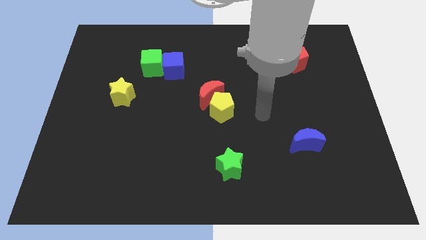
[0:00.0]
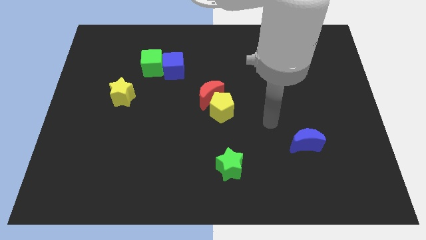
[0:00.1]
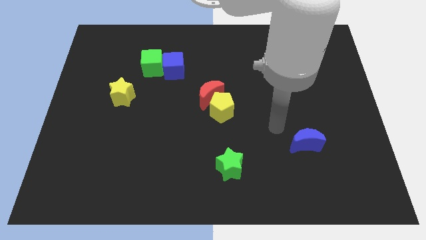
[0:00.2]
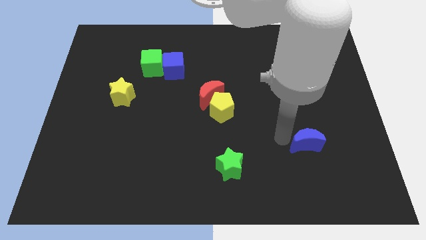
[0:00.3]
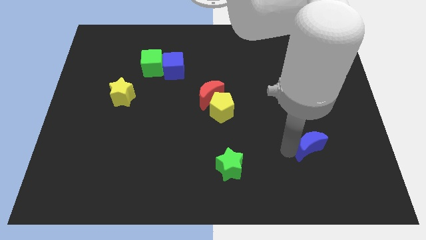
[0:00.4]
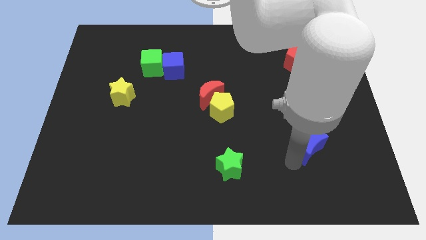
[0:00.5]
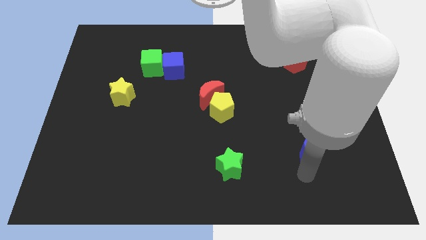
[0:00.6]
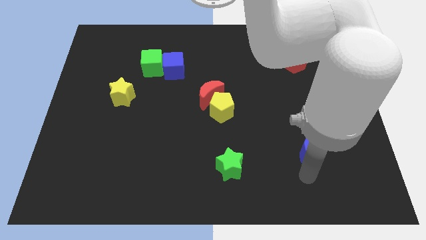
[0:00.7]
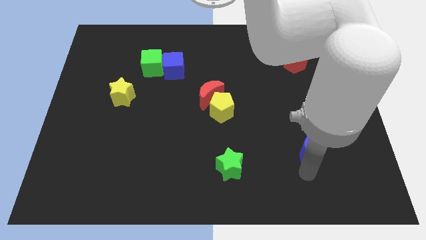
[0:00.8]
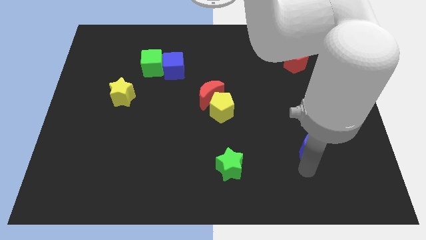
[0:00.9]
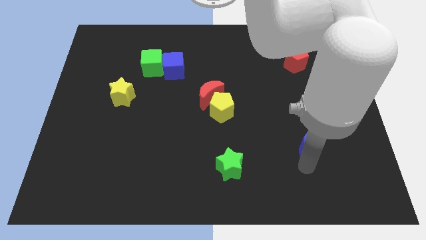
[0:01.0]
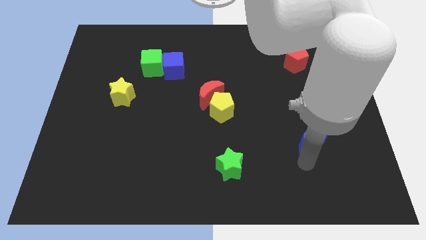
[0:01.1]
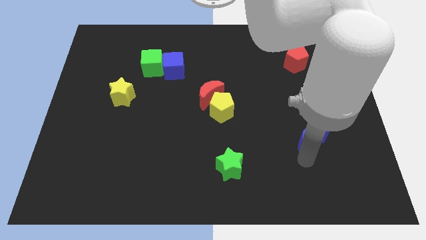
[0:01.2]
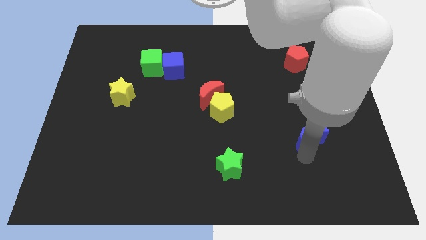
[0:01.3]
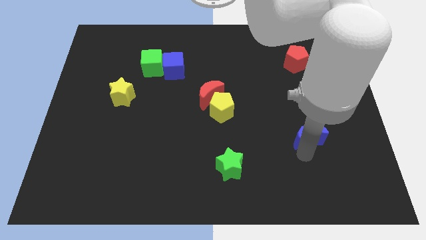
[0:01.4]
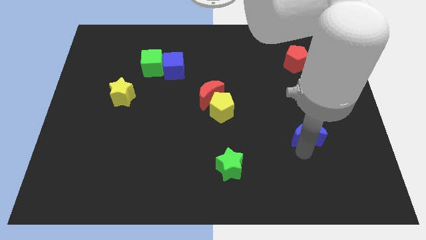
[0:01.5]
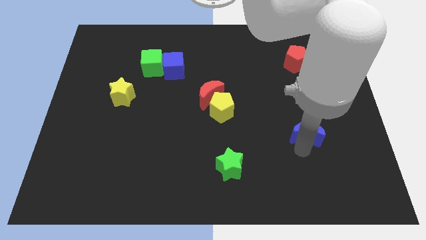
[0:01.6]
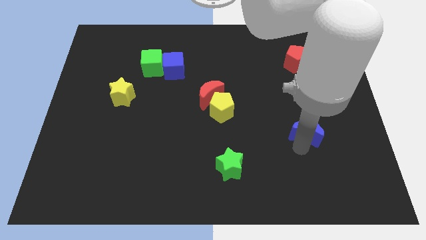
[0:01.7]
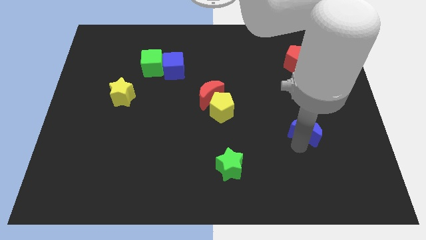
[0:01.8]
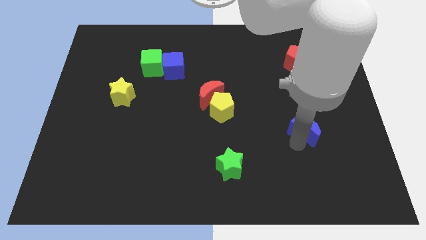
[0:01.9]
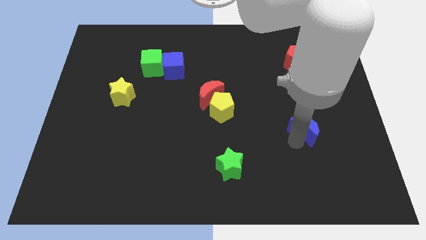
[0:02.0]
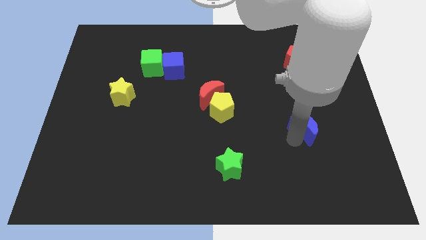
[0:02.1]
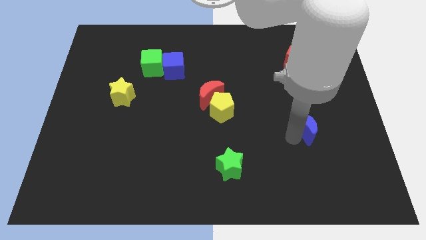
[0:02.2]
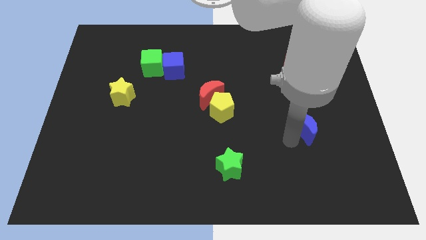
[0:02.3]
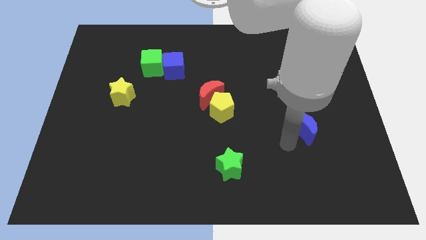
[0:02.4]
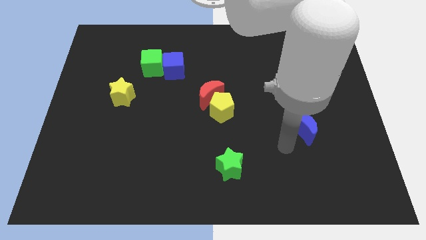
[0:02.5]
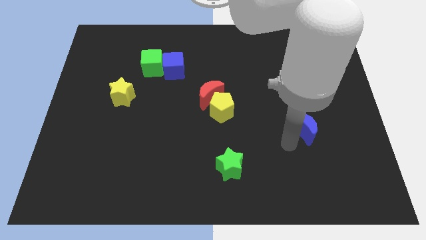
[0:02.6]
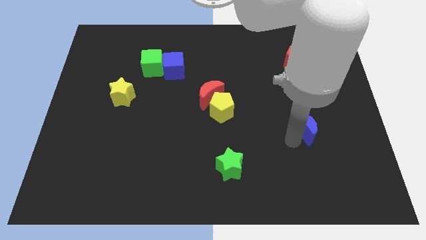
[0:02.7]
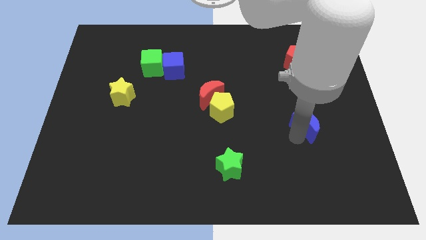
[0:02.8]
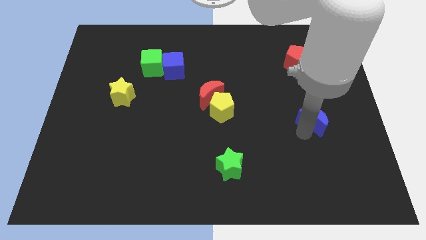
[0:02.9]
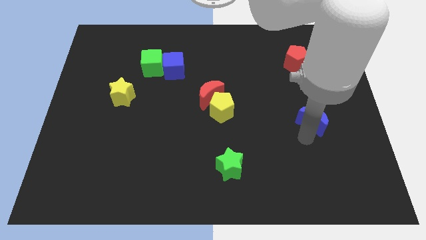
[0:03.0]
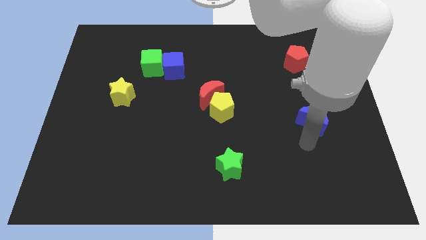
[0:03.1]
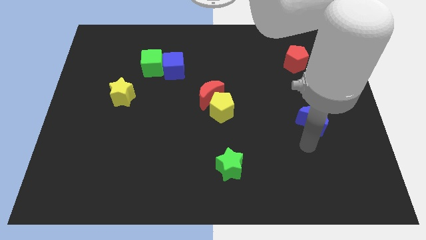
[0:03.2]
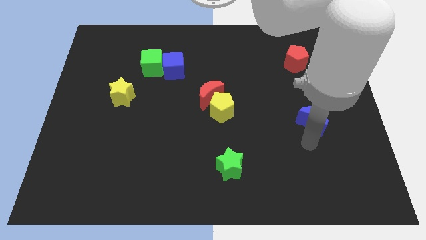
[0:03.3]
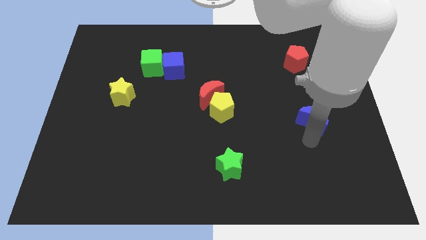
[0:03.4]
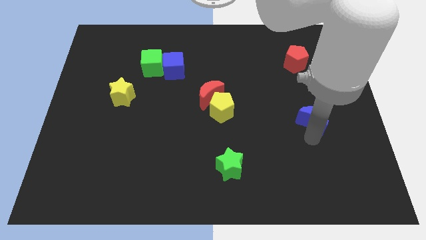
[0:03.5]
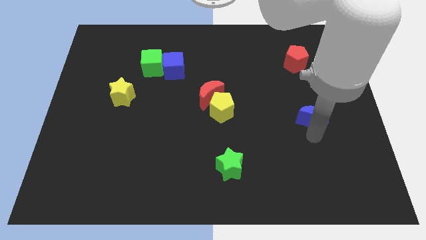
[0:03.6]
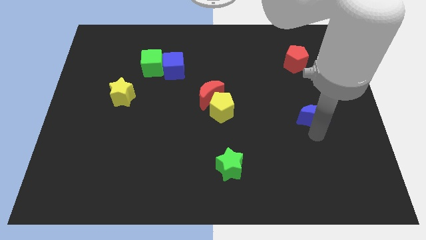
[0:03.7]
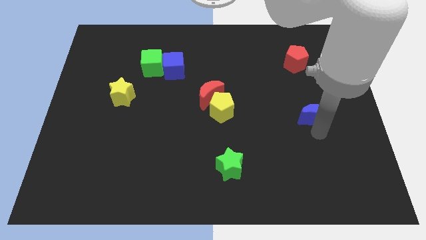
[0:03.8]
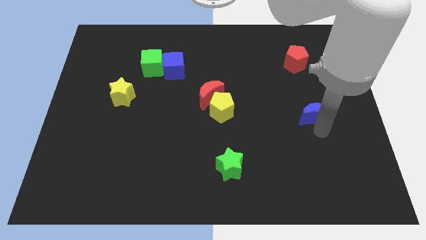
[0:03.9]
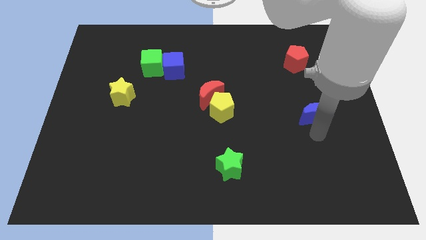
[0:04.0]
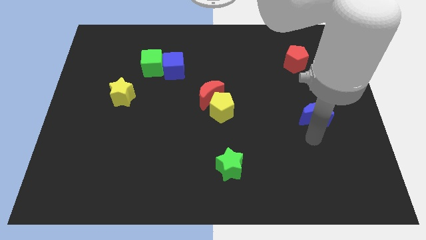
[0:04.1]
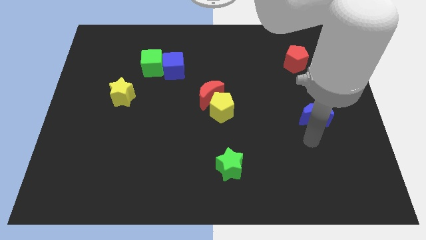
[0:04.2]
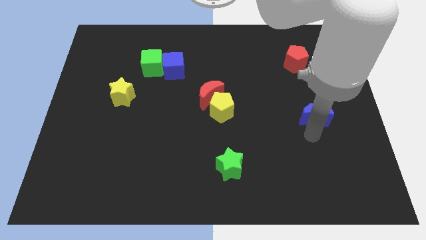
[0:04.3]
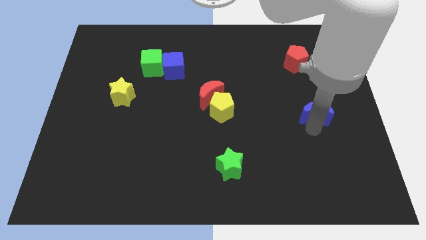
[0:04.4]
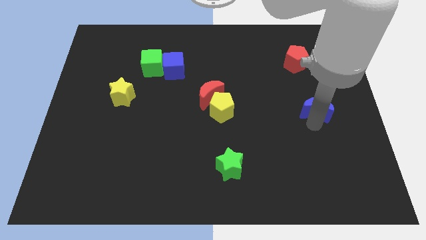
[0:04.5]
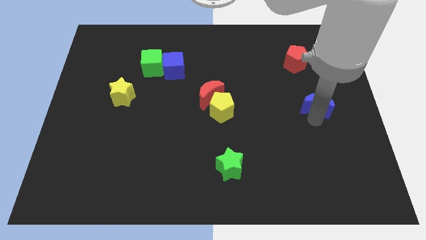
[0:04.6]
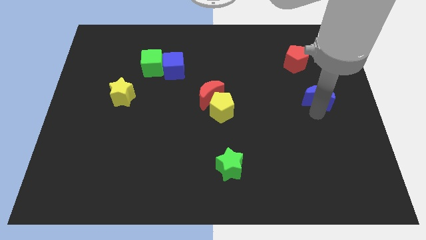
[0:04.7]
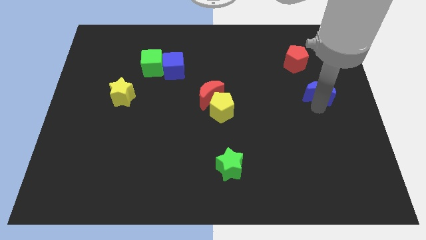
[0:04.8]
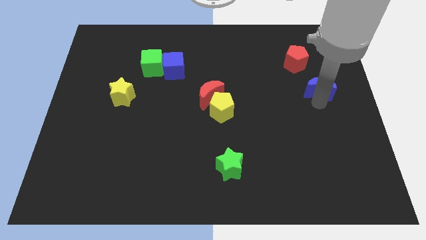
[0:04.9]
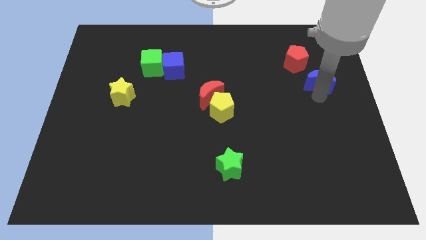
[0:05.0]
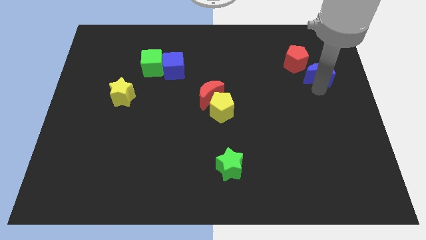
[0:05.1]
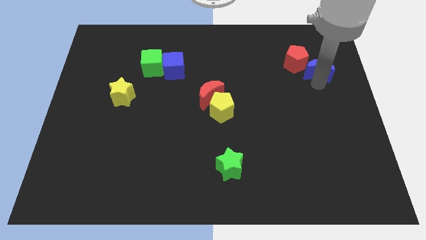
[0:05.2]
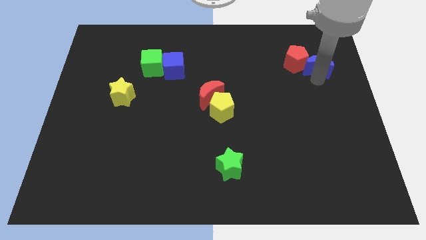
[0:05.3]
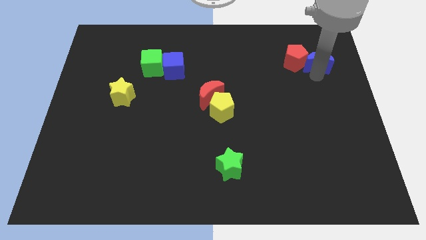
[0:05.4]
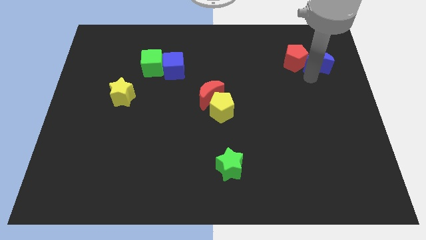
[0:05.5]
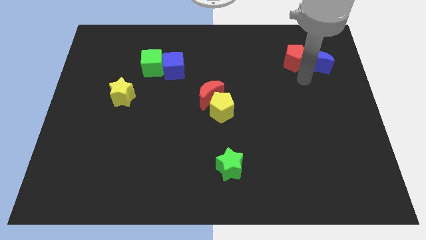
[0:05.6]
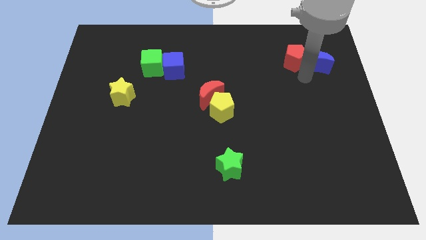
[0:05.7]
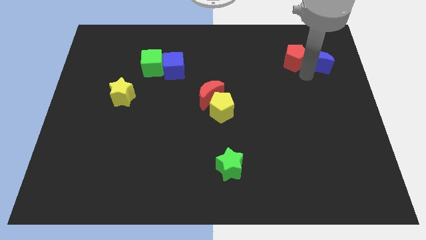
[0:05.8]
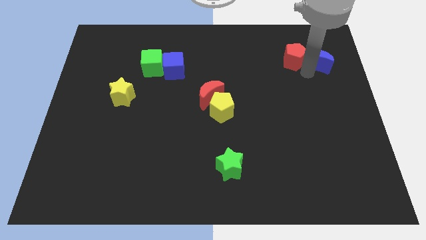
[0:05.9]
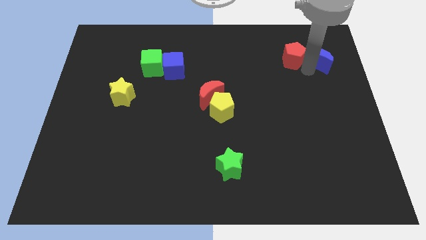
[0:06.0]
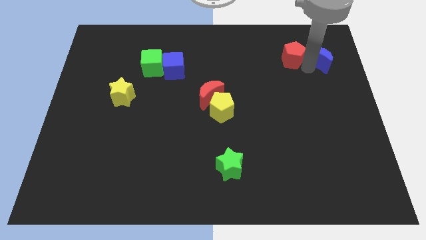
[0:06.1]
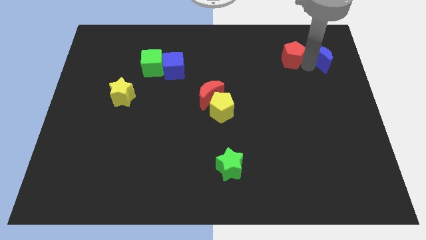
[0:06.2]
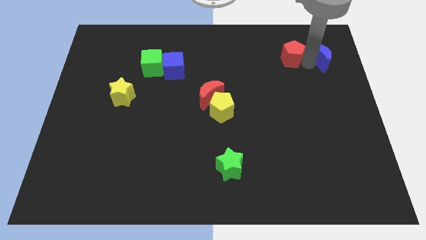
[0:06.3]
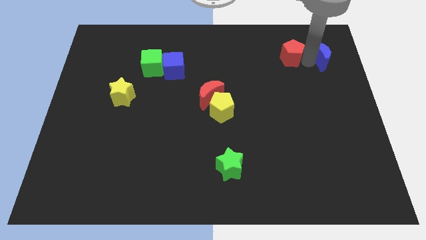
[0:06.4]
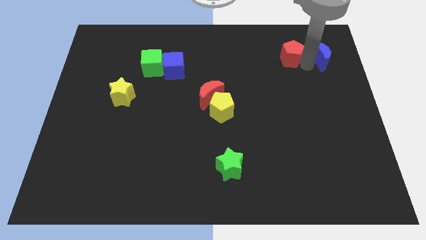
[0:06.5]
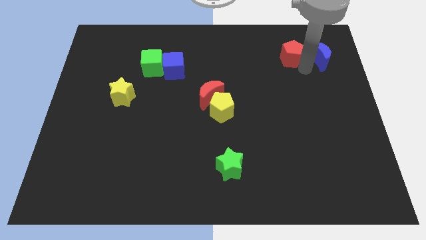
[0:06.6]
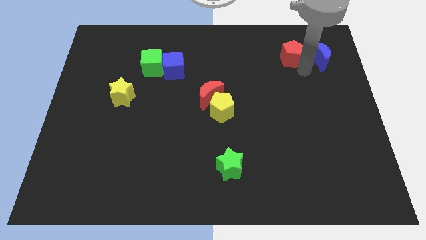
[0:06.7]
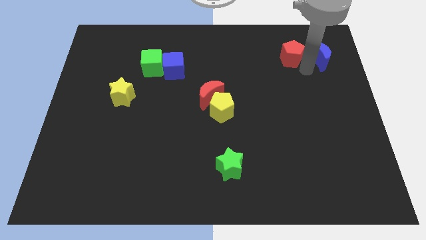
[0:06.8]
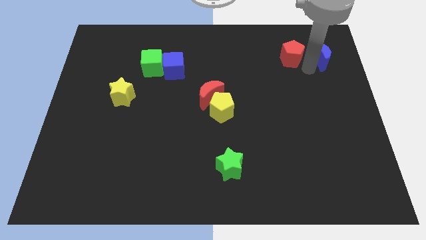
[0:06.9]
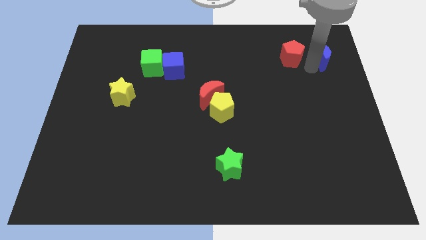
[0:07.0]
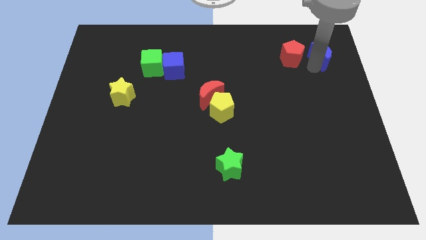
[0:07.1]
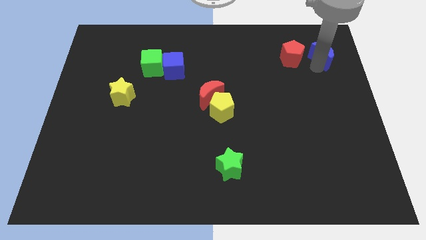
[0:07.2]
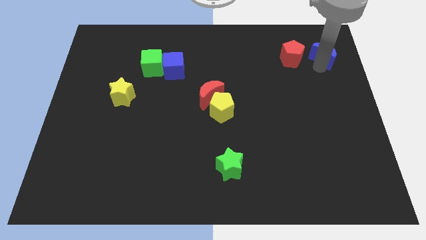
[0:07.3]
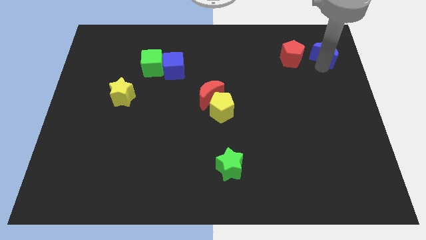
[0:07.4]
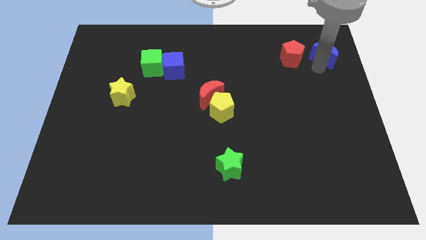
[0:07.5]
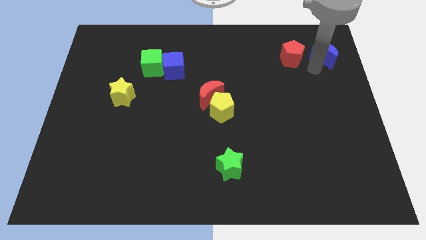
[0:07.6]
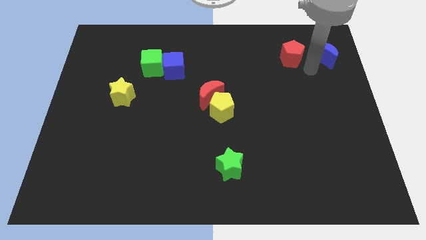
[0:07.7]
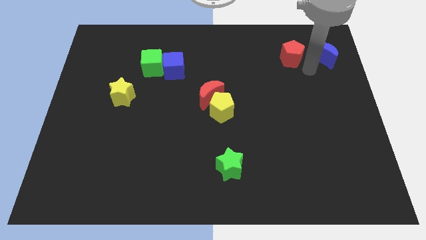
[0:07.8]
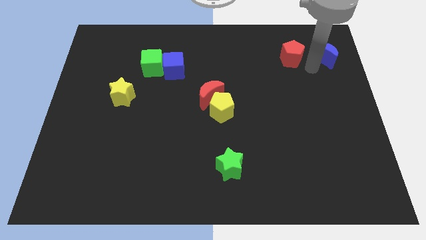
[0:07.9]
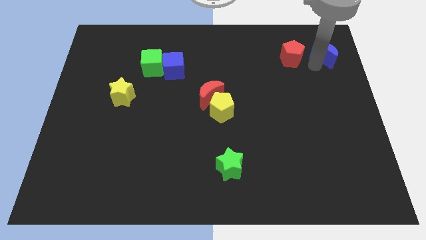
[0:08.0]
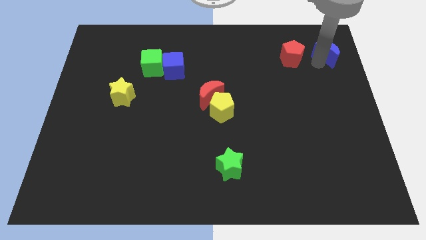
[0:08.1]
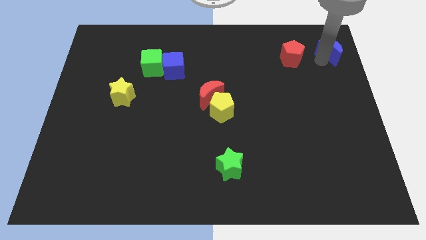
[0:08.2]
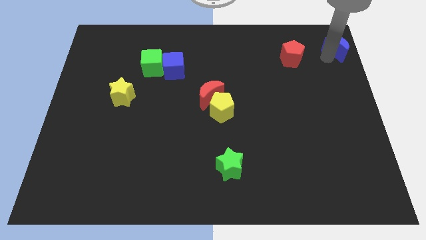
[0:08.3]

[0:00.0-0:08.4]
put the blue moon to the upper right corner
